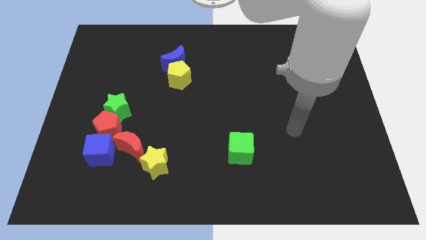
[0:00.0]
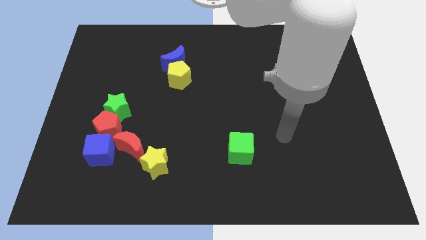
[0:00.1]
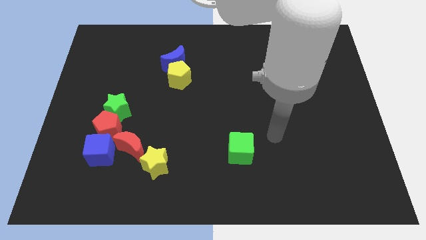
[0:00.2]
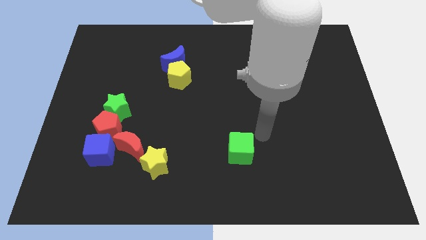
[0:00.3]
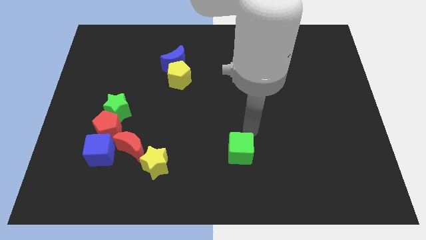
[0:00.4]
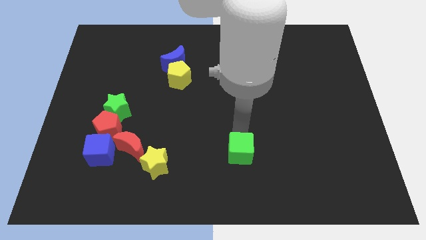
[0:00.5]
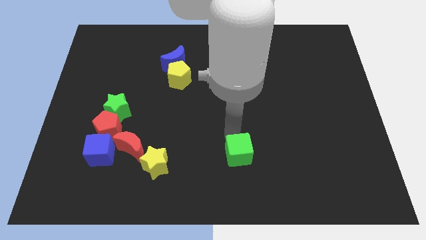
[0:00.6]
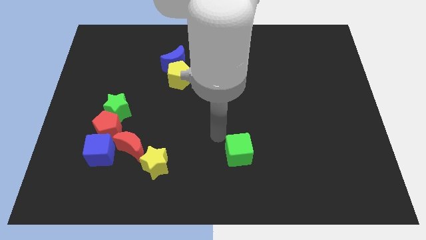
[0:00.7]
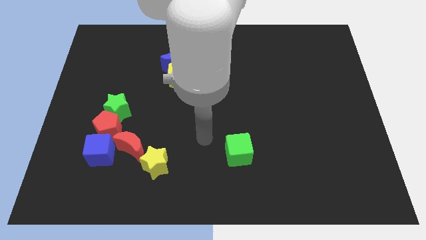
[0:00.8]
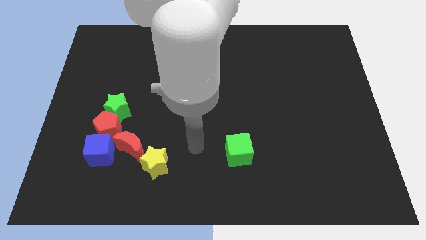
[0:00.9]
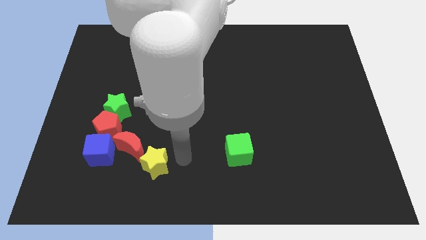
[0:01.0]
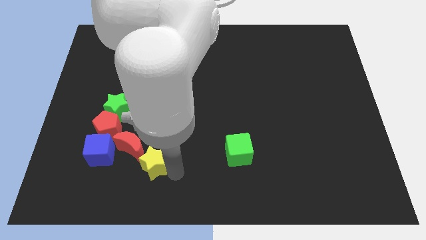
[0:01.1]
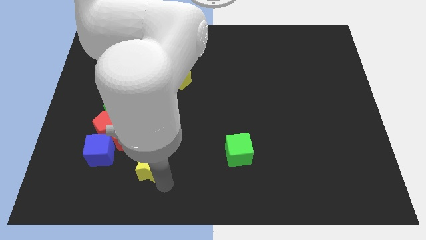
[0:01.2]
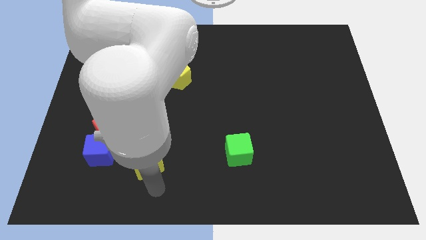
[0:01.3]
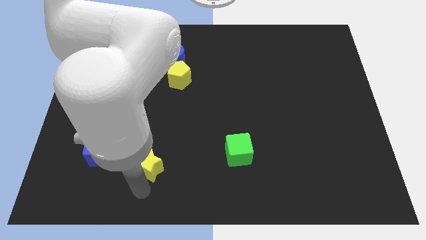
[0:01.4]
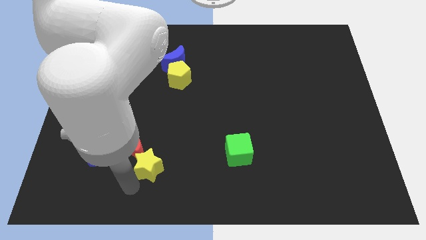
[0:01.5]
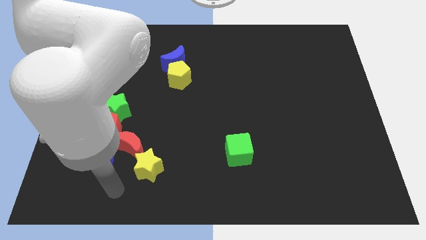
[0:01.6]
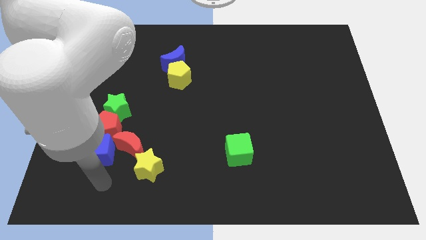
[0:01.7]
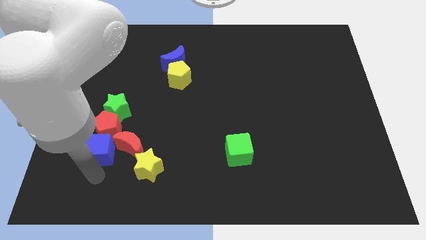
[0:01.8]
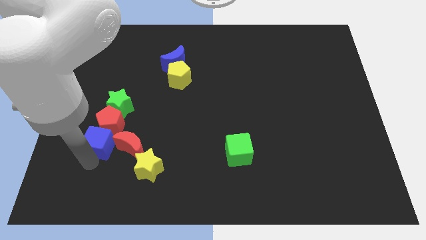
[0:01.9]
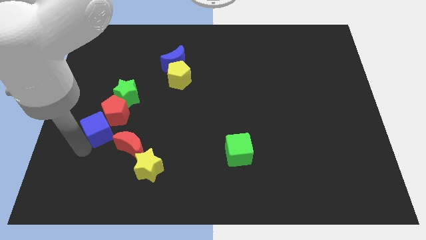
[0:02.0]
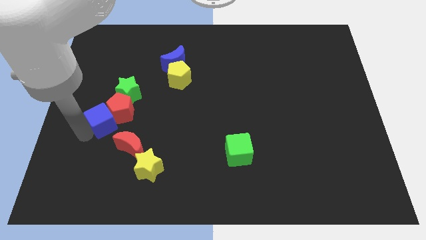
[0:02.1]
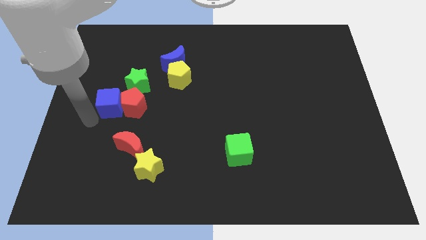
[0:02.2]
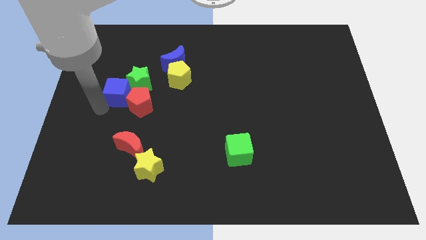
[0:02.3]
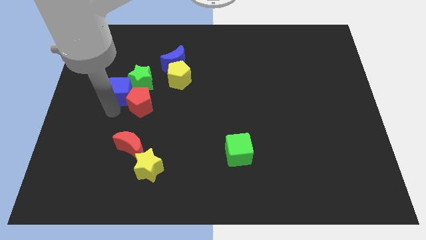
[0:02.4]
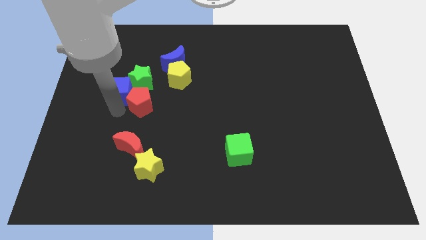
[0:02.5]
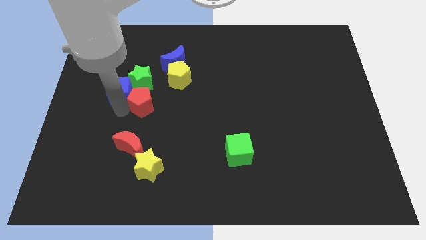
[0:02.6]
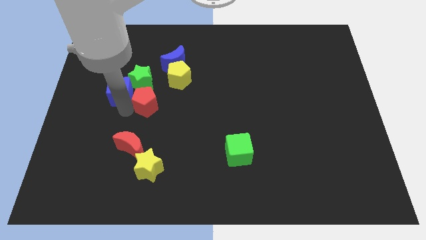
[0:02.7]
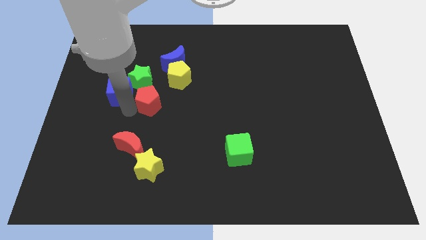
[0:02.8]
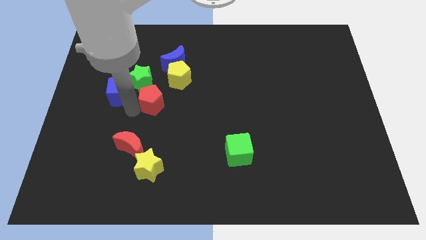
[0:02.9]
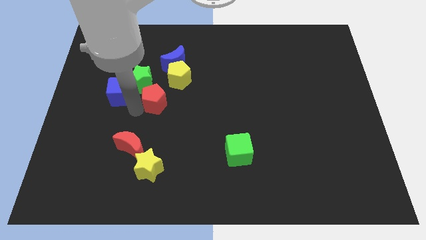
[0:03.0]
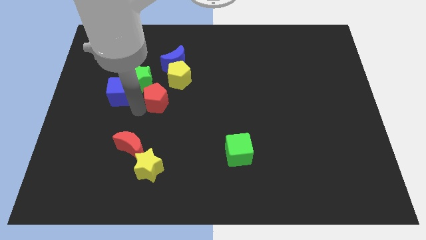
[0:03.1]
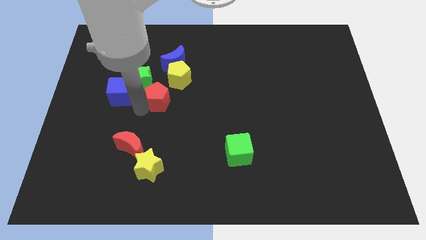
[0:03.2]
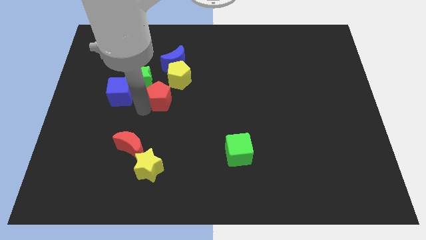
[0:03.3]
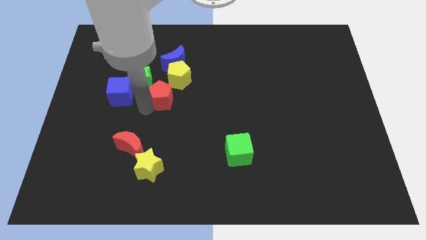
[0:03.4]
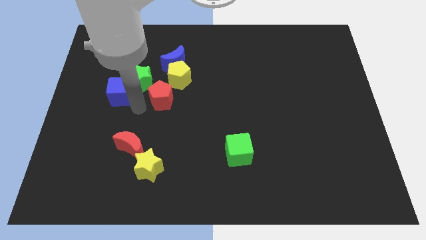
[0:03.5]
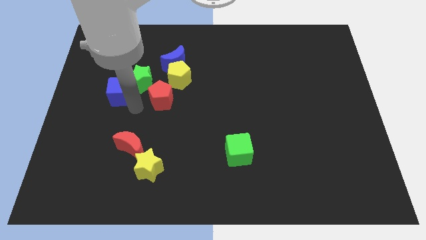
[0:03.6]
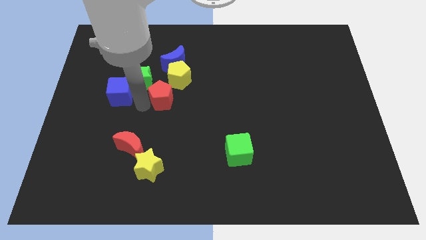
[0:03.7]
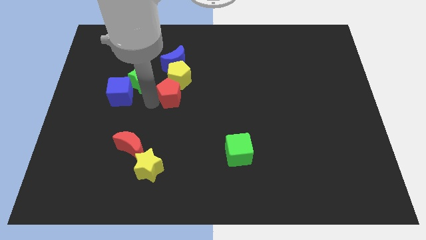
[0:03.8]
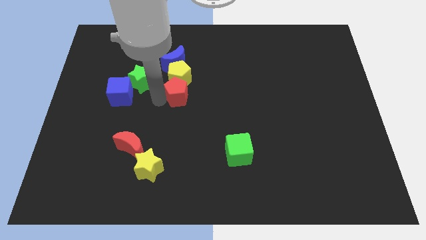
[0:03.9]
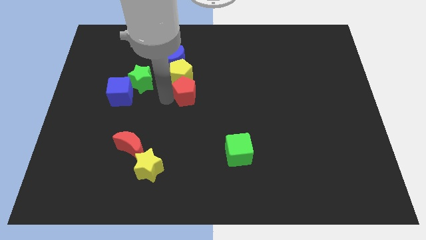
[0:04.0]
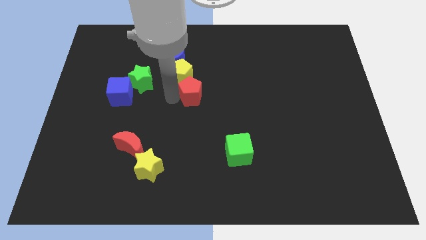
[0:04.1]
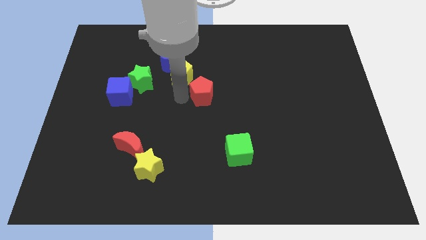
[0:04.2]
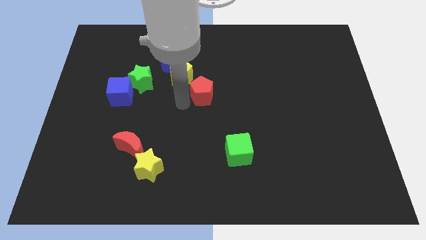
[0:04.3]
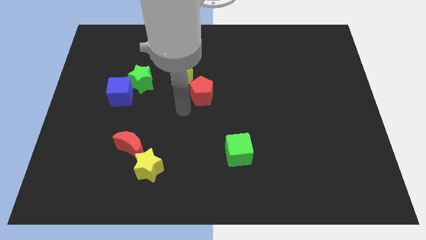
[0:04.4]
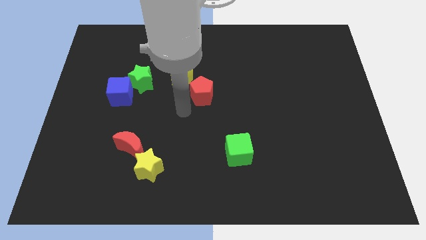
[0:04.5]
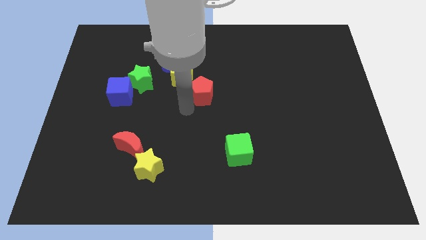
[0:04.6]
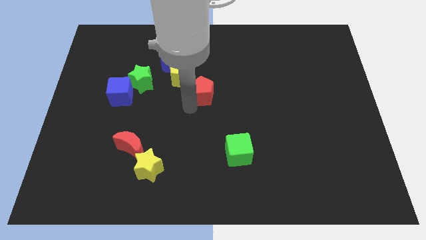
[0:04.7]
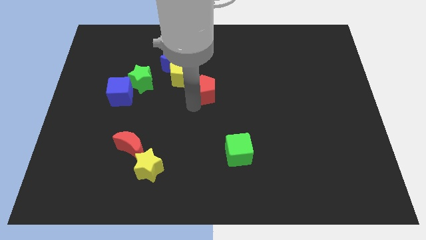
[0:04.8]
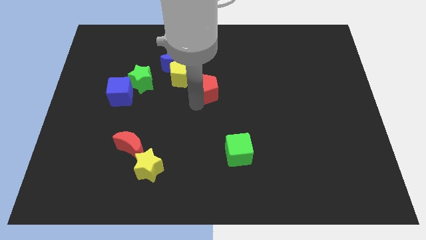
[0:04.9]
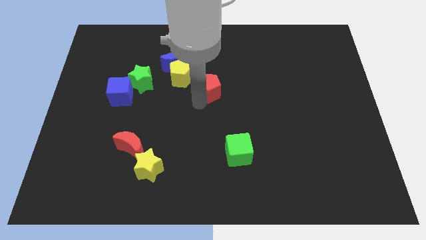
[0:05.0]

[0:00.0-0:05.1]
push the red pentagon right of the yellow pentagon

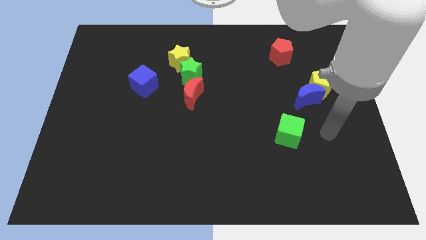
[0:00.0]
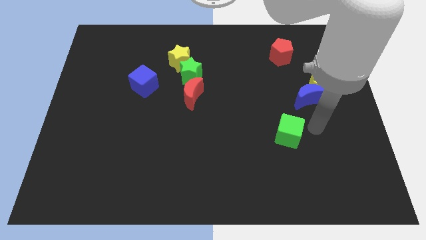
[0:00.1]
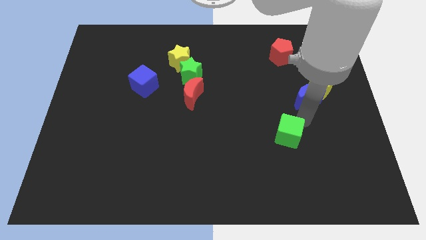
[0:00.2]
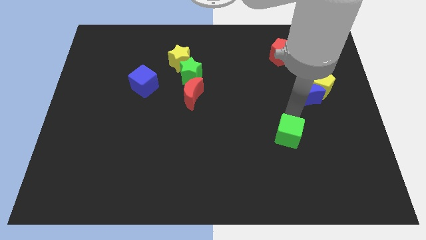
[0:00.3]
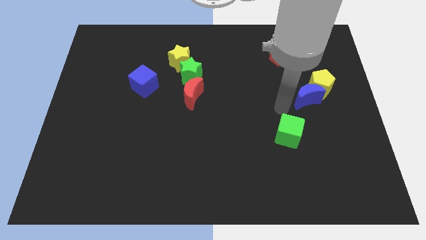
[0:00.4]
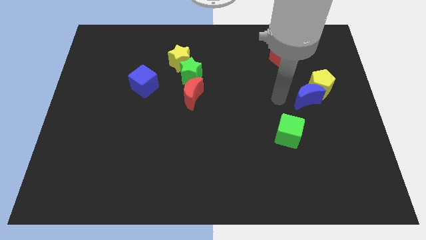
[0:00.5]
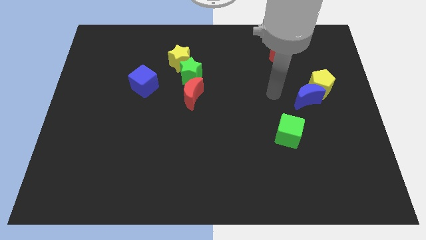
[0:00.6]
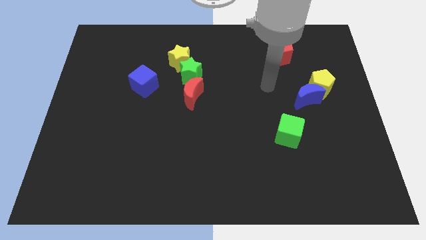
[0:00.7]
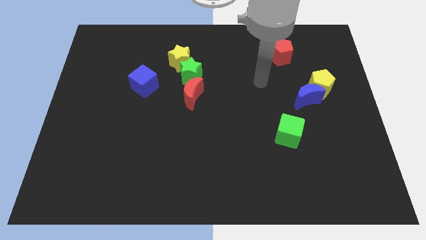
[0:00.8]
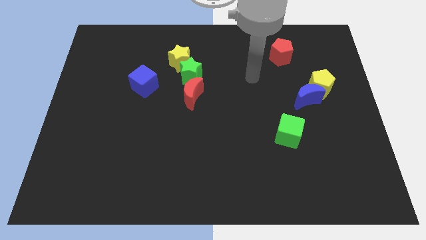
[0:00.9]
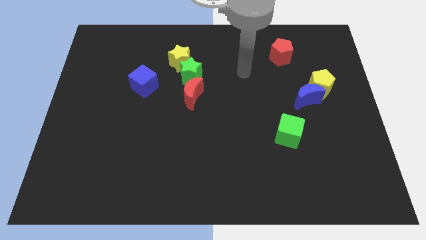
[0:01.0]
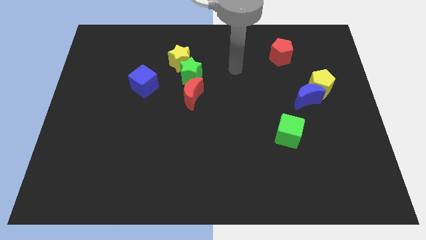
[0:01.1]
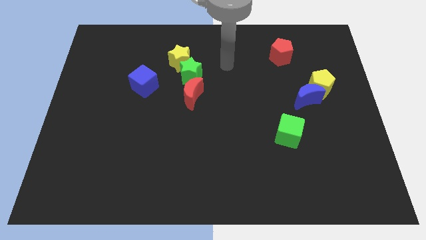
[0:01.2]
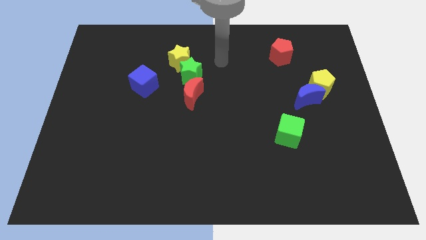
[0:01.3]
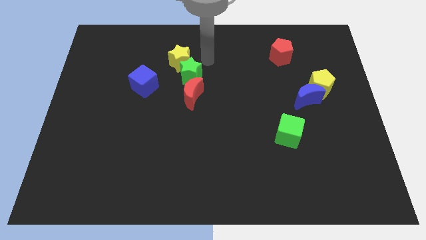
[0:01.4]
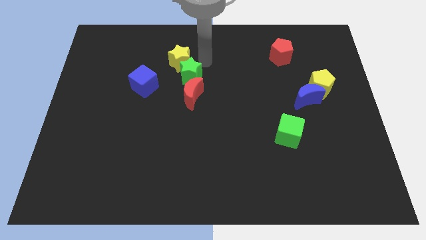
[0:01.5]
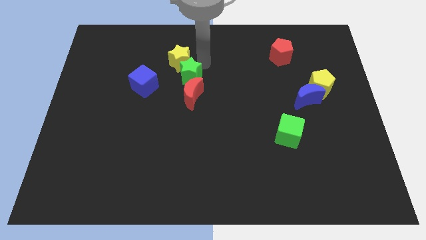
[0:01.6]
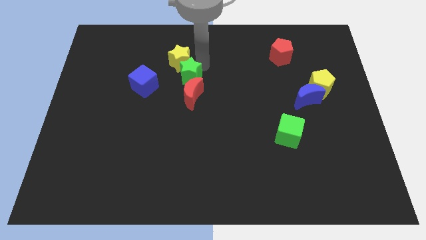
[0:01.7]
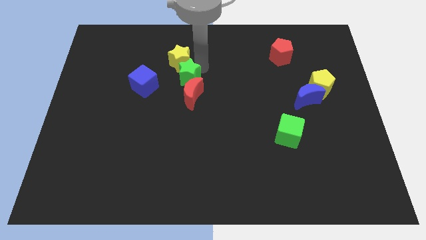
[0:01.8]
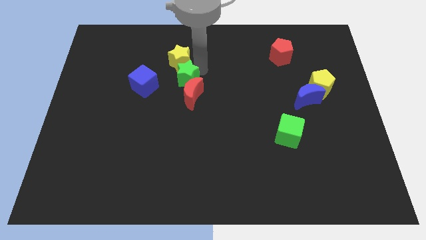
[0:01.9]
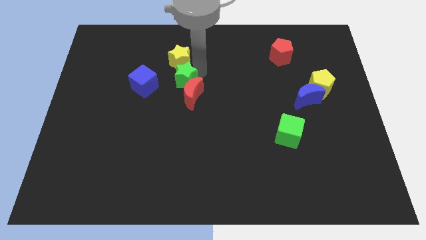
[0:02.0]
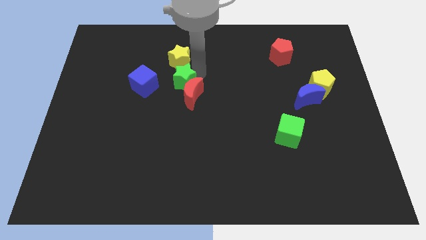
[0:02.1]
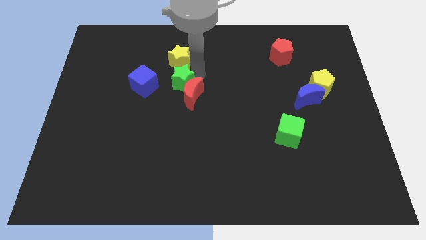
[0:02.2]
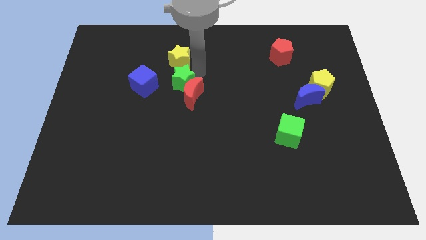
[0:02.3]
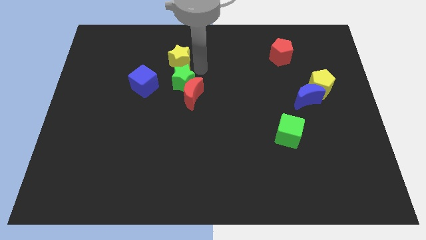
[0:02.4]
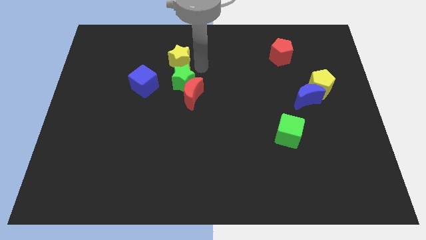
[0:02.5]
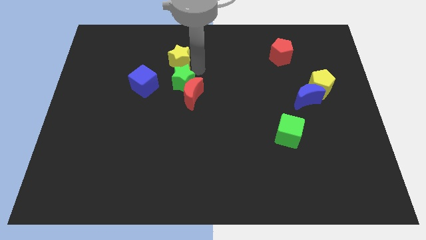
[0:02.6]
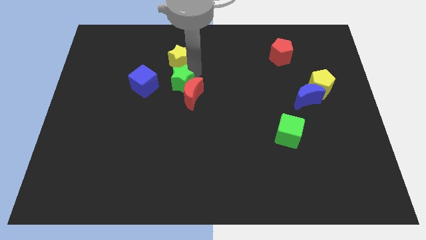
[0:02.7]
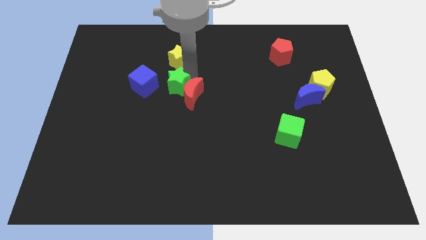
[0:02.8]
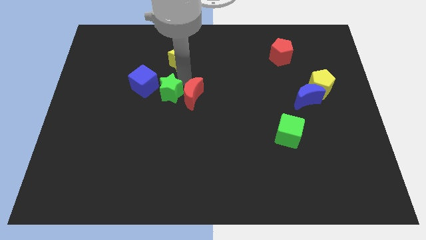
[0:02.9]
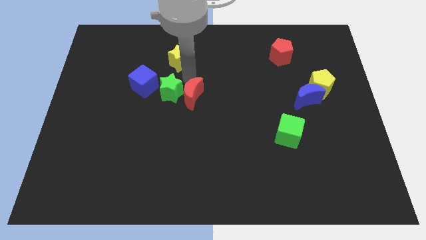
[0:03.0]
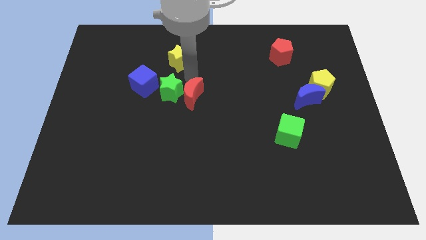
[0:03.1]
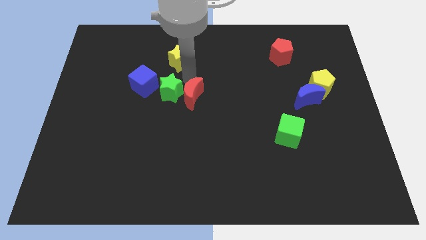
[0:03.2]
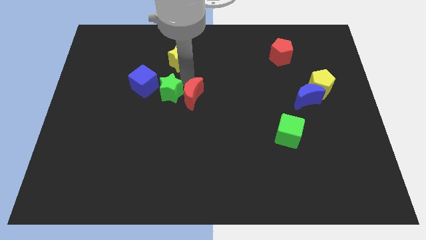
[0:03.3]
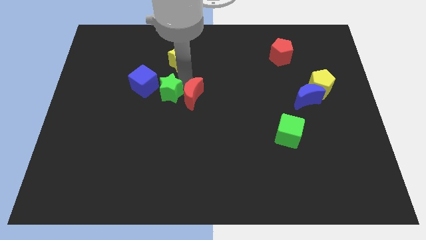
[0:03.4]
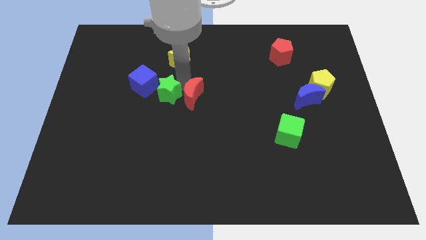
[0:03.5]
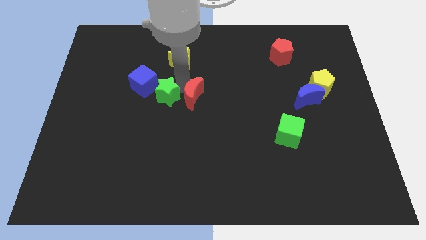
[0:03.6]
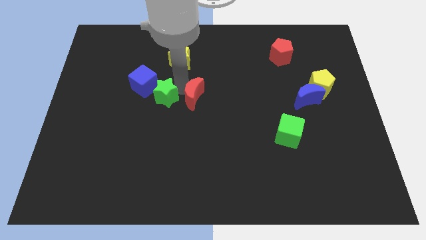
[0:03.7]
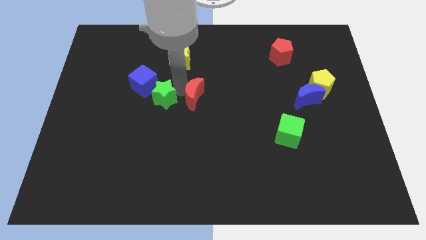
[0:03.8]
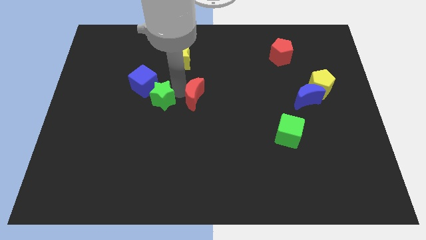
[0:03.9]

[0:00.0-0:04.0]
put the green star to the bottom side of the blue cube
